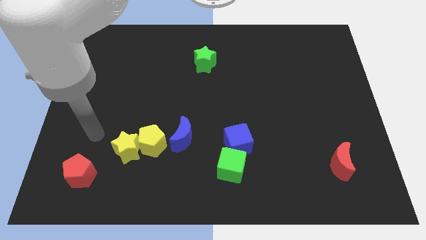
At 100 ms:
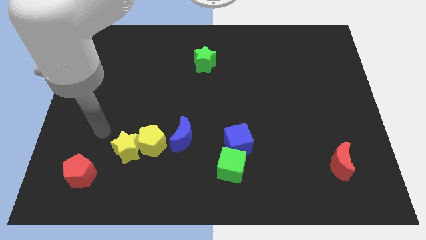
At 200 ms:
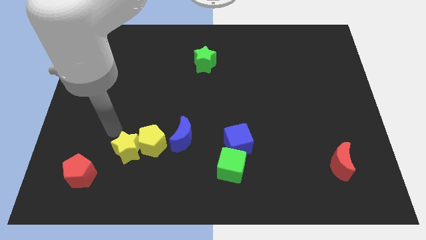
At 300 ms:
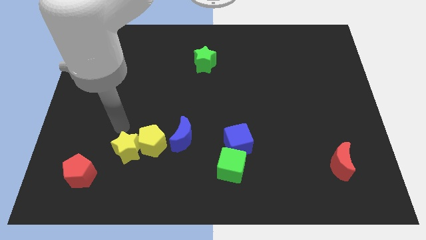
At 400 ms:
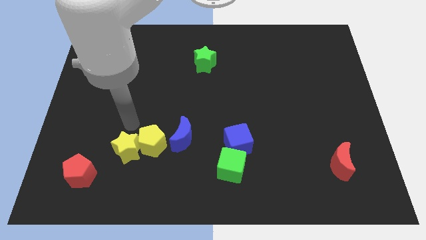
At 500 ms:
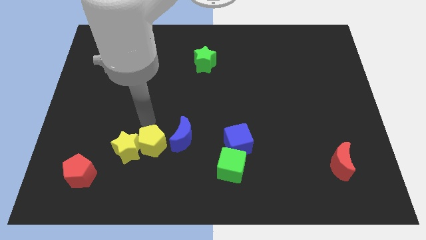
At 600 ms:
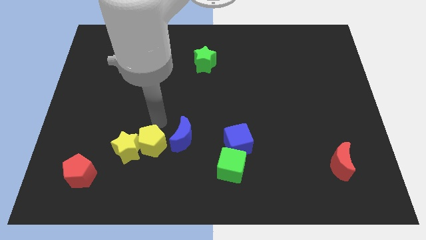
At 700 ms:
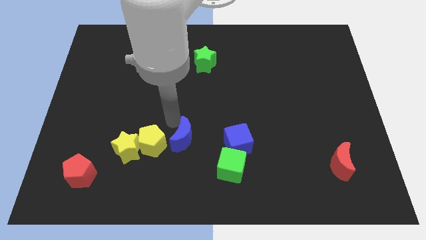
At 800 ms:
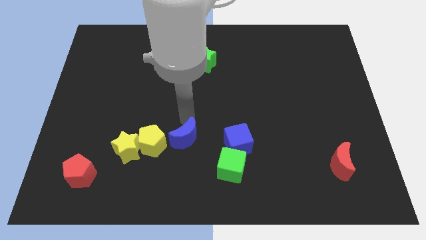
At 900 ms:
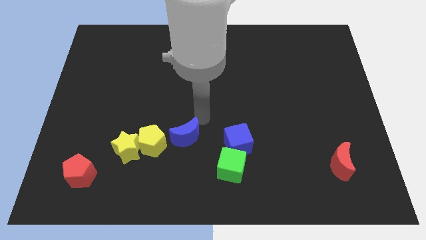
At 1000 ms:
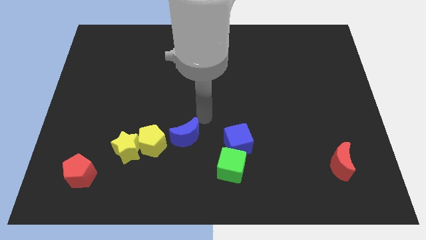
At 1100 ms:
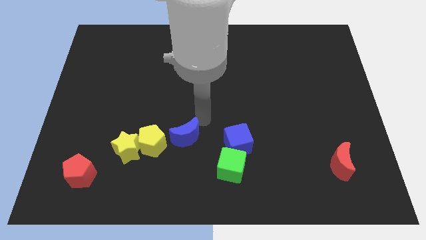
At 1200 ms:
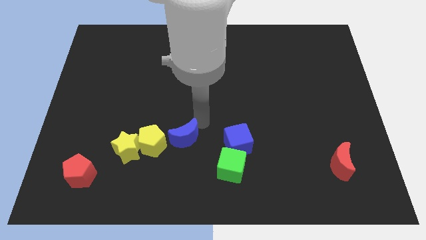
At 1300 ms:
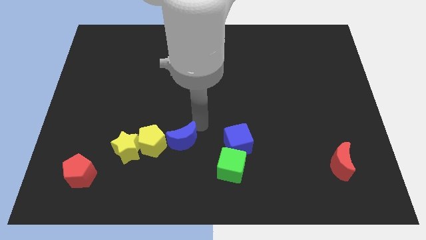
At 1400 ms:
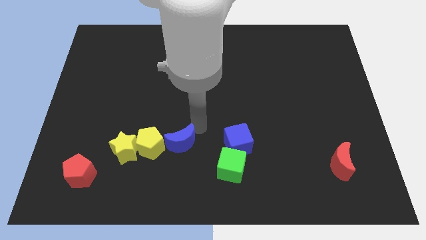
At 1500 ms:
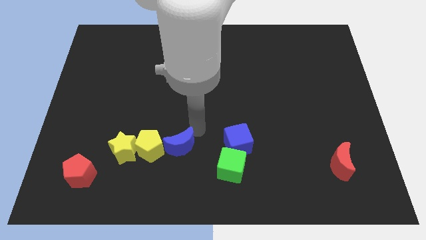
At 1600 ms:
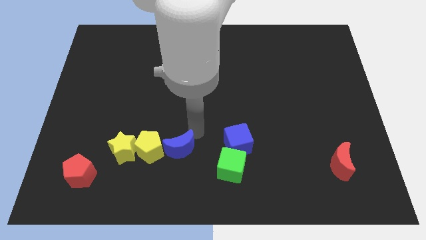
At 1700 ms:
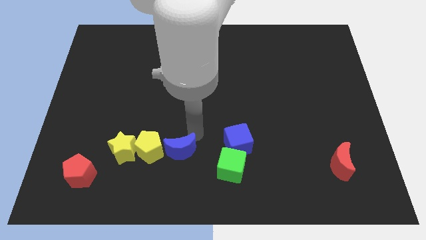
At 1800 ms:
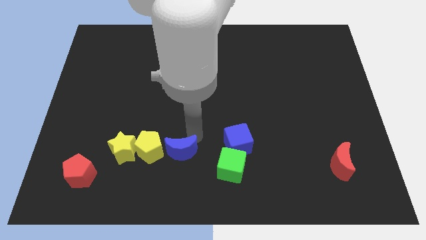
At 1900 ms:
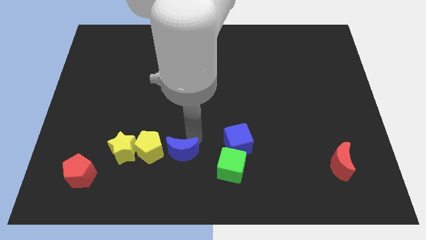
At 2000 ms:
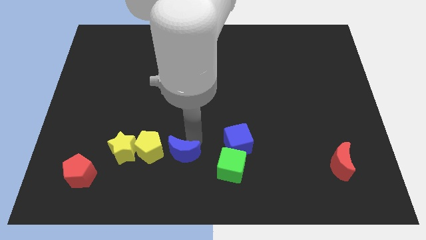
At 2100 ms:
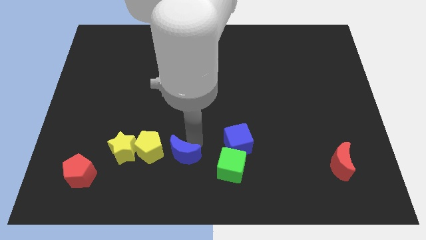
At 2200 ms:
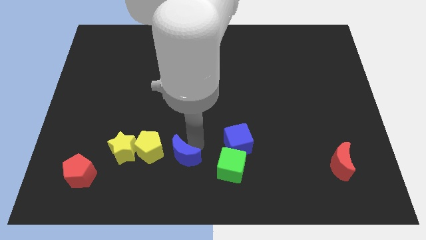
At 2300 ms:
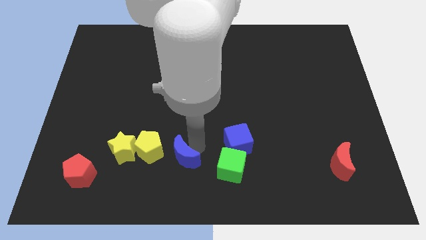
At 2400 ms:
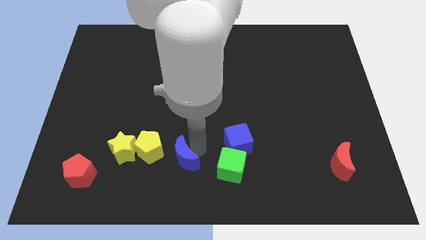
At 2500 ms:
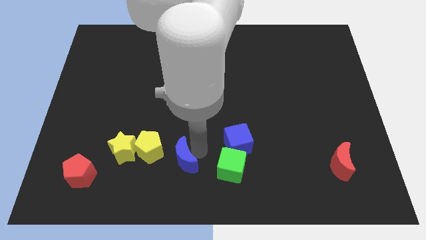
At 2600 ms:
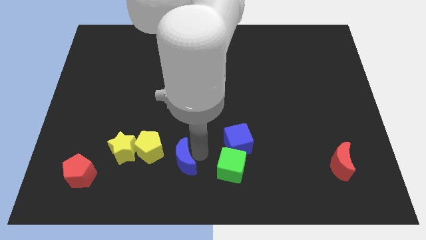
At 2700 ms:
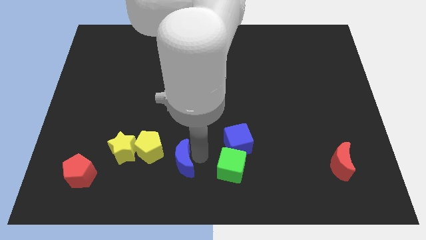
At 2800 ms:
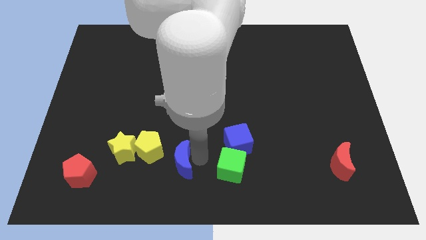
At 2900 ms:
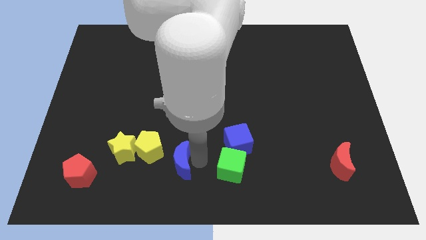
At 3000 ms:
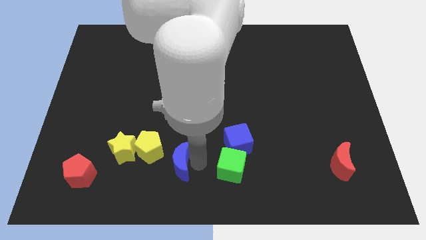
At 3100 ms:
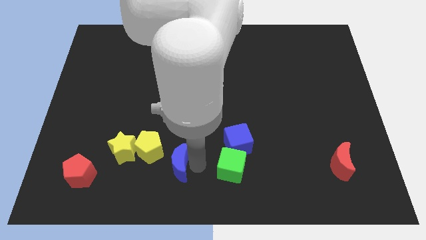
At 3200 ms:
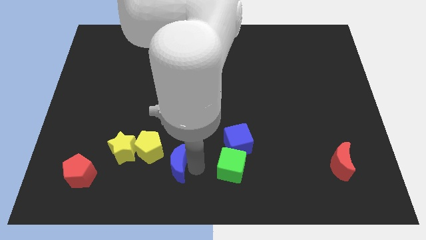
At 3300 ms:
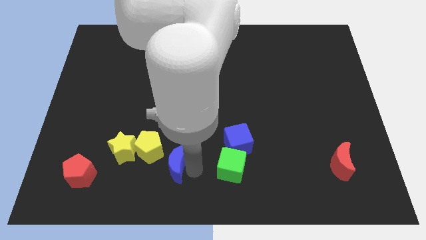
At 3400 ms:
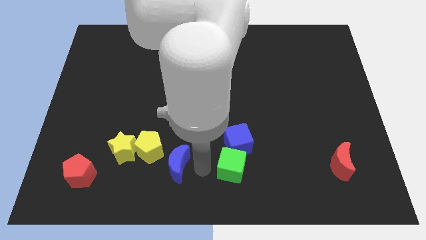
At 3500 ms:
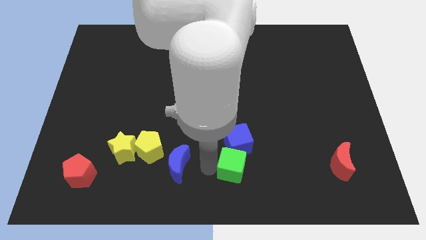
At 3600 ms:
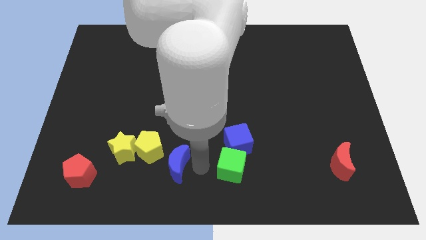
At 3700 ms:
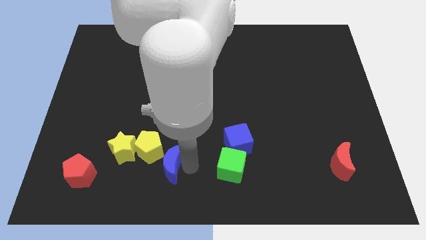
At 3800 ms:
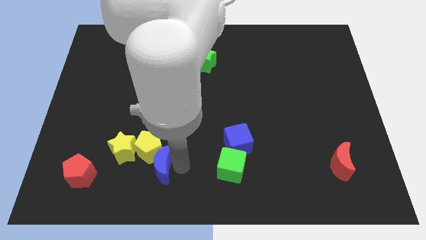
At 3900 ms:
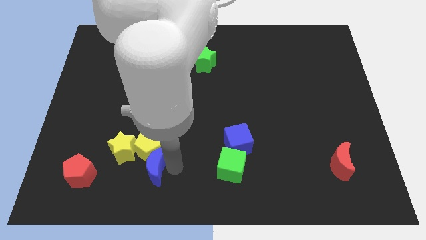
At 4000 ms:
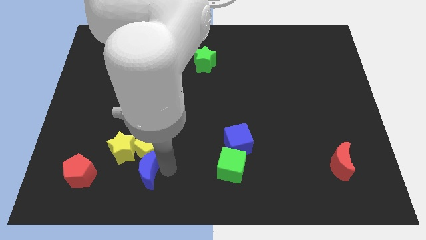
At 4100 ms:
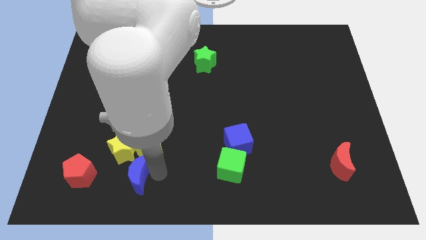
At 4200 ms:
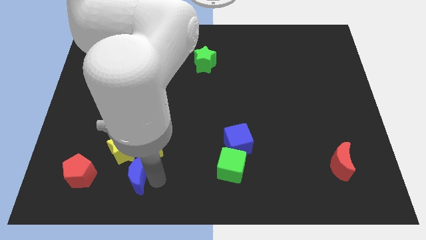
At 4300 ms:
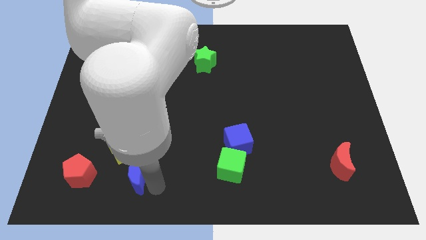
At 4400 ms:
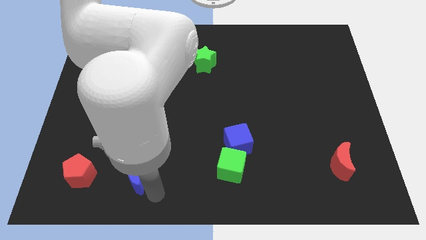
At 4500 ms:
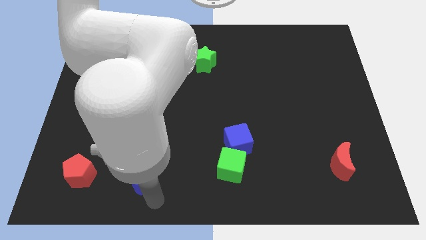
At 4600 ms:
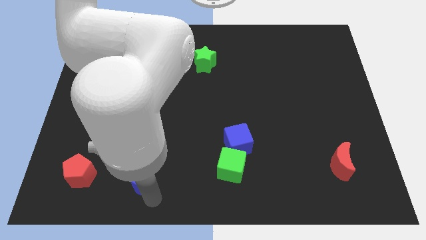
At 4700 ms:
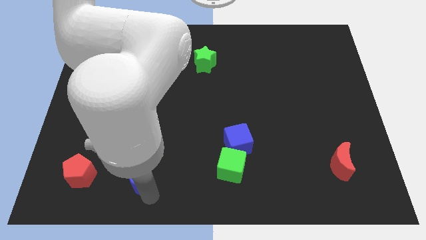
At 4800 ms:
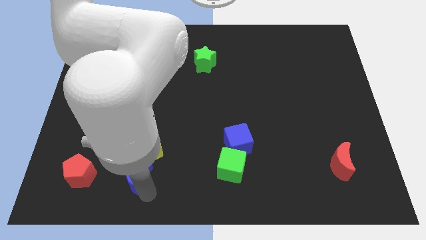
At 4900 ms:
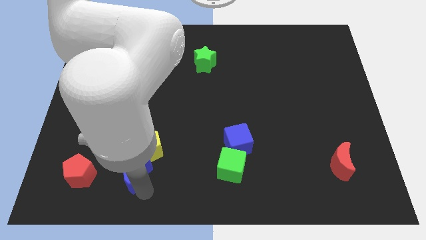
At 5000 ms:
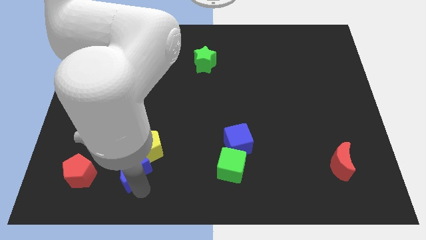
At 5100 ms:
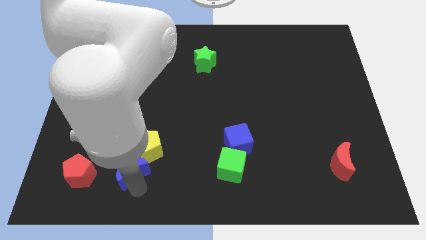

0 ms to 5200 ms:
slide the blue moon to the yellow star

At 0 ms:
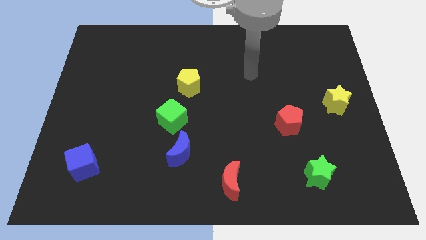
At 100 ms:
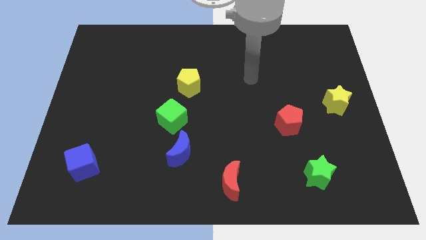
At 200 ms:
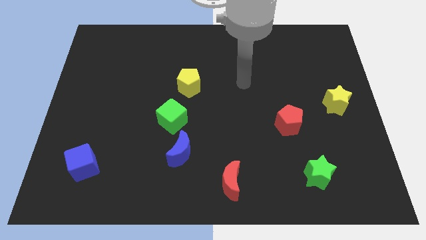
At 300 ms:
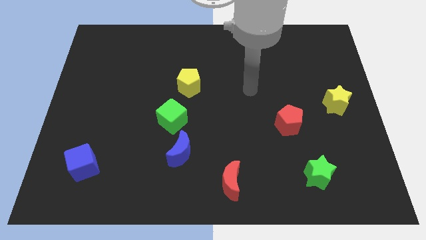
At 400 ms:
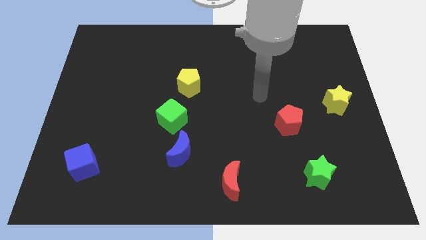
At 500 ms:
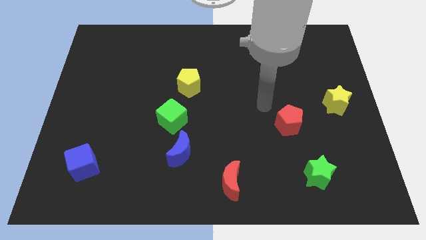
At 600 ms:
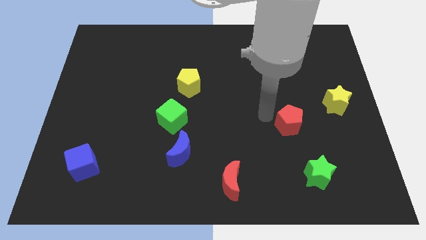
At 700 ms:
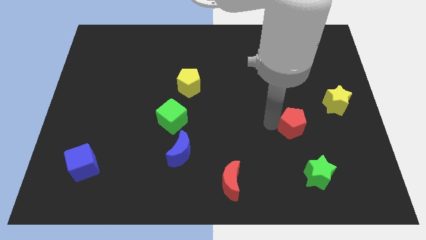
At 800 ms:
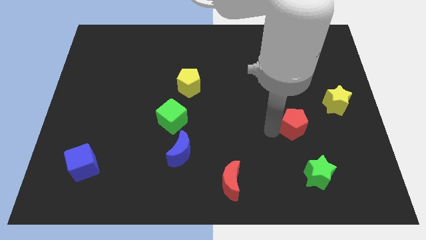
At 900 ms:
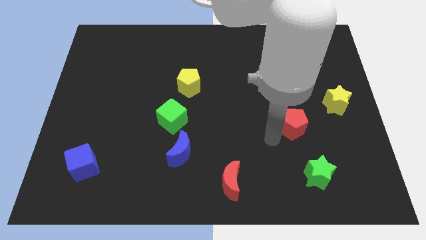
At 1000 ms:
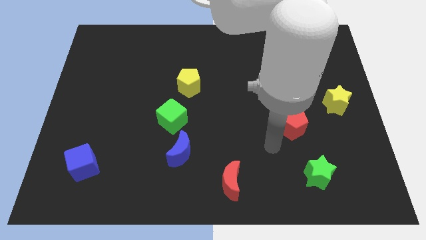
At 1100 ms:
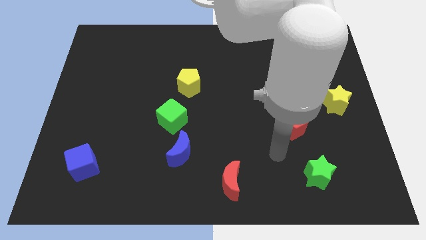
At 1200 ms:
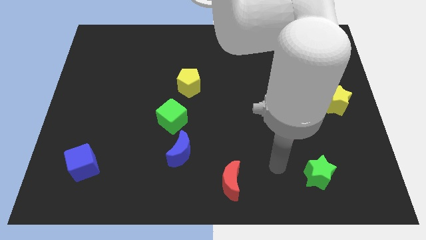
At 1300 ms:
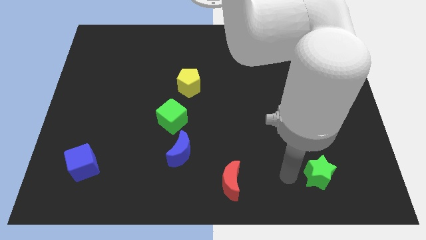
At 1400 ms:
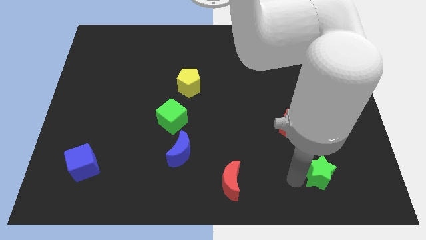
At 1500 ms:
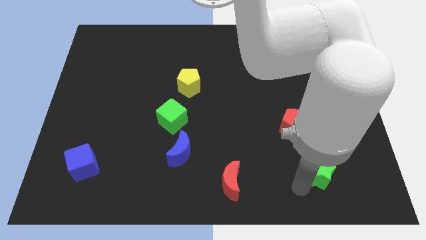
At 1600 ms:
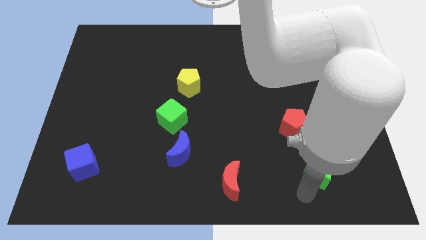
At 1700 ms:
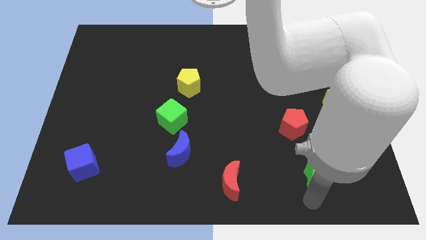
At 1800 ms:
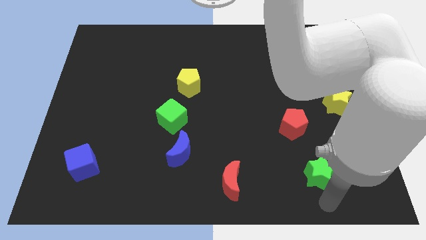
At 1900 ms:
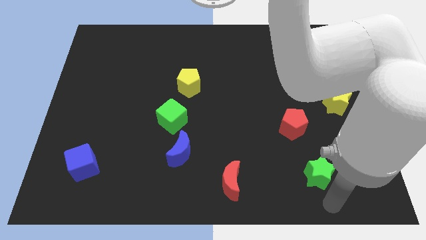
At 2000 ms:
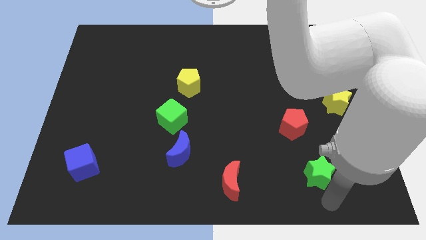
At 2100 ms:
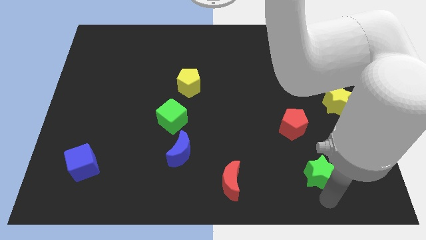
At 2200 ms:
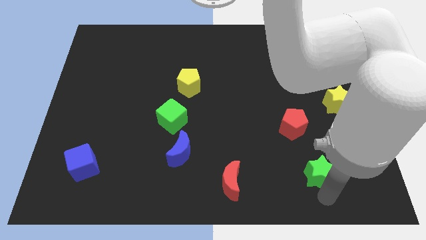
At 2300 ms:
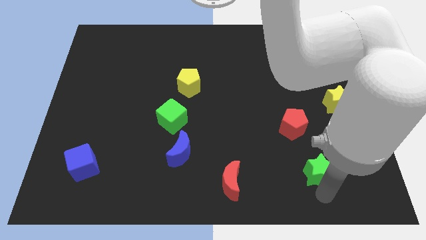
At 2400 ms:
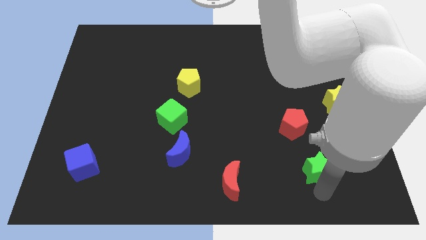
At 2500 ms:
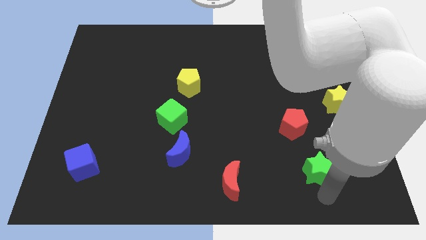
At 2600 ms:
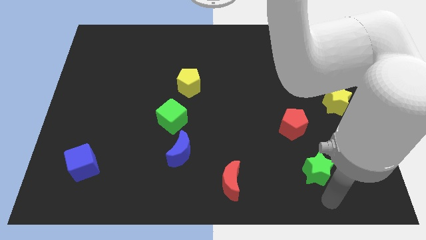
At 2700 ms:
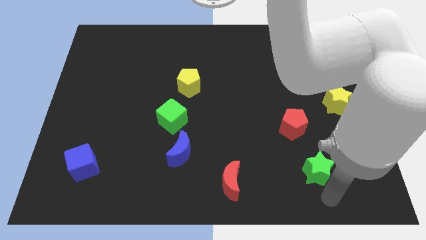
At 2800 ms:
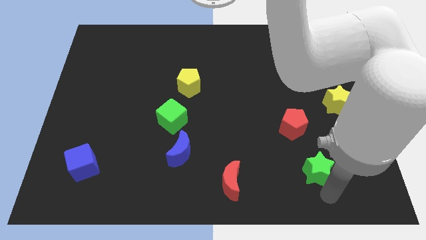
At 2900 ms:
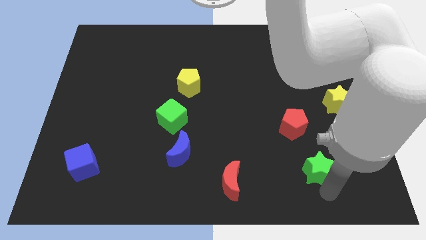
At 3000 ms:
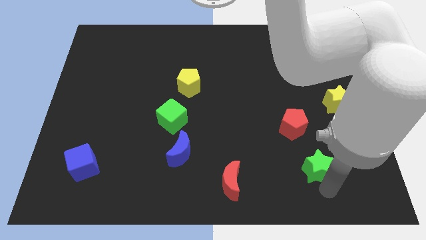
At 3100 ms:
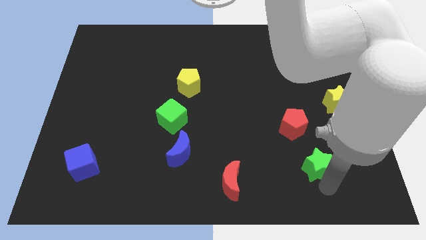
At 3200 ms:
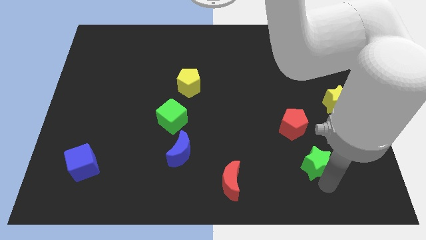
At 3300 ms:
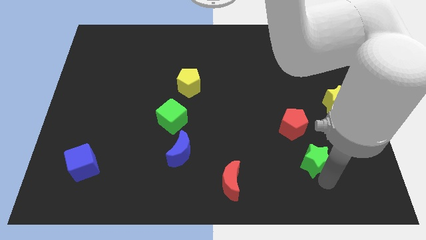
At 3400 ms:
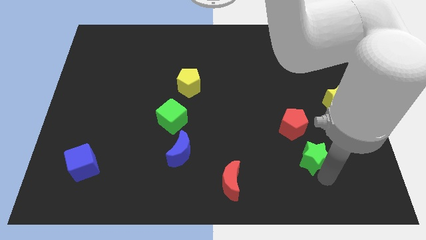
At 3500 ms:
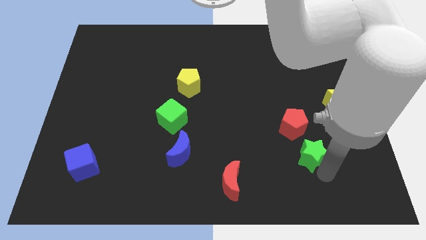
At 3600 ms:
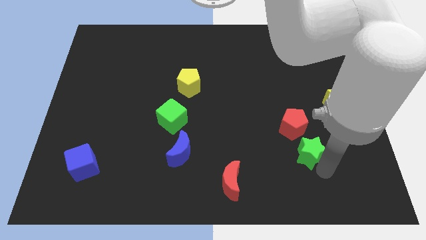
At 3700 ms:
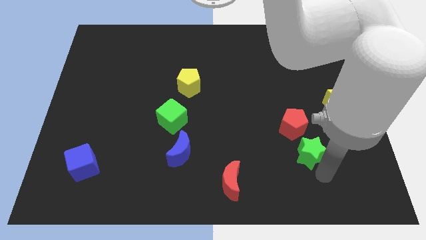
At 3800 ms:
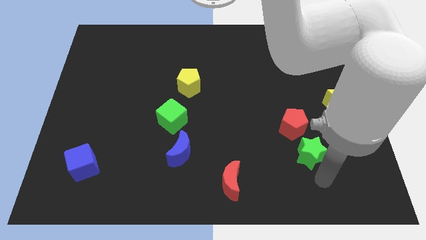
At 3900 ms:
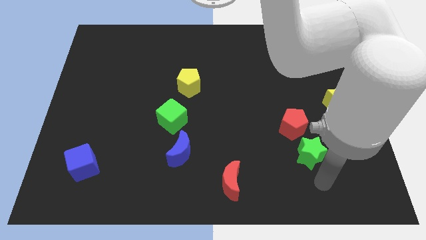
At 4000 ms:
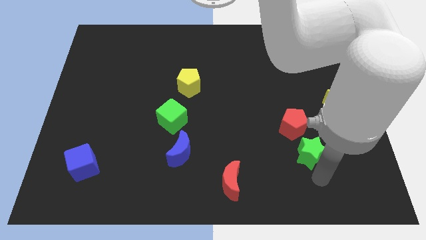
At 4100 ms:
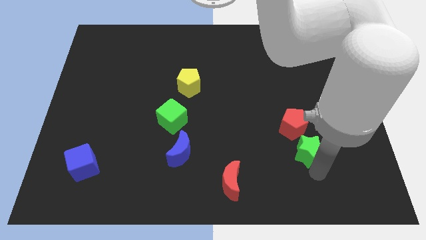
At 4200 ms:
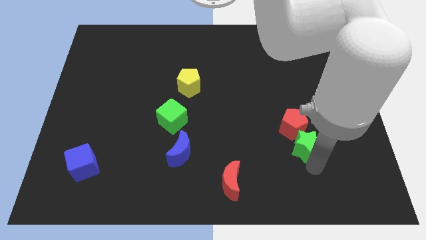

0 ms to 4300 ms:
push the green star next to the red pentagon
